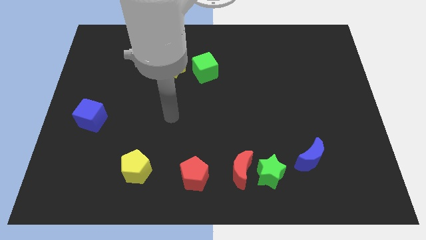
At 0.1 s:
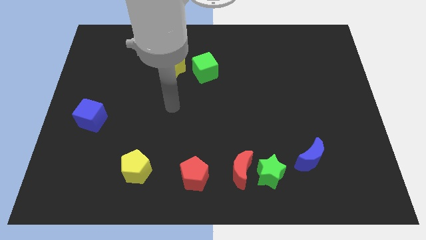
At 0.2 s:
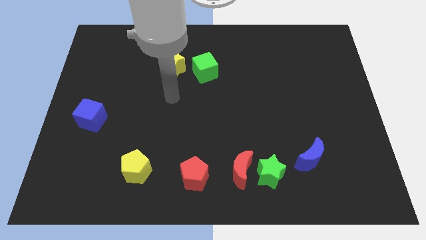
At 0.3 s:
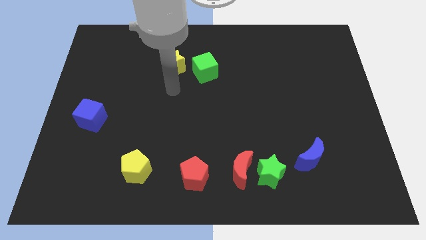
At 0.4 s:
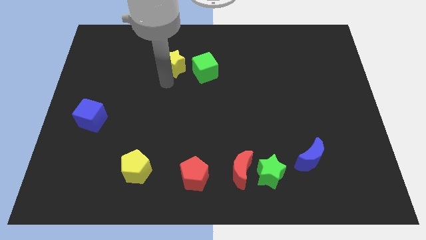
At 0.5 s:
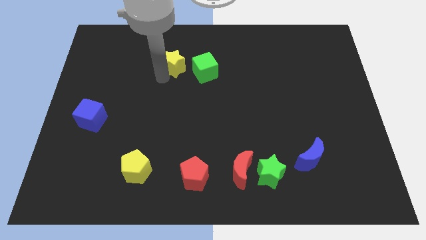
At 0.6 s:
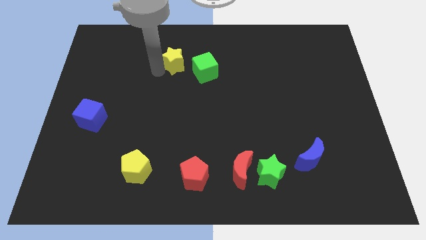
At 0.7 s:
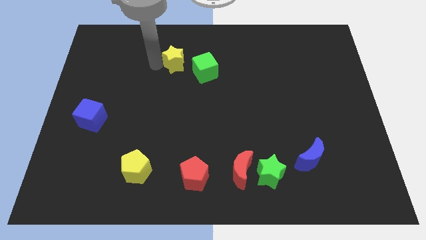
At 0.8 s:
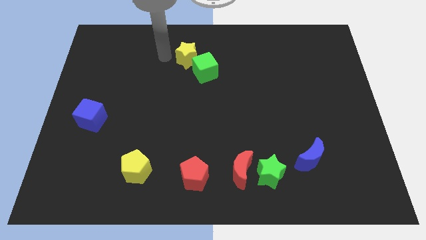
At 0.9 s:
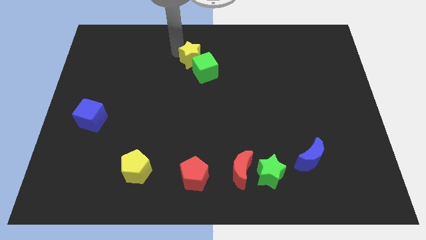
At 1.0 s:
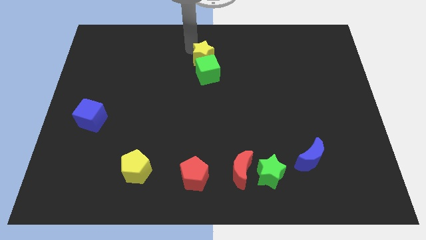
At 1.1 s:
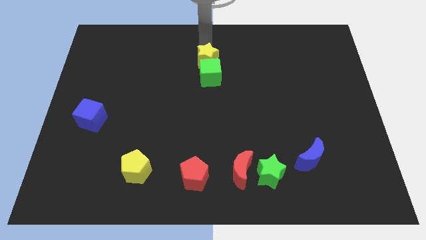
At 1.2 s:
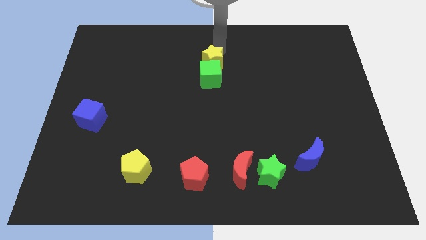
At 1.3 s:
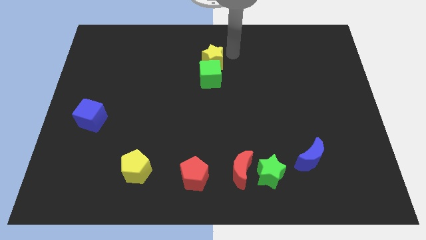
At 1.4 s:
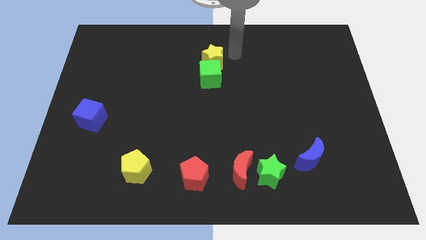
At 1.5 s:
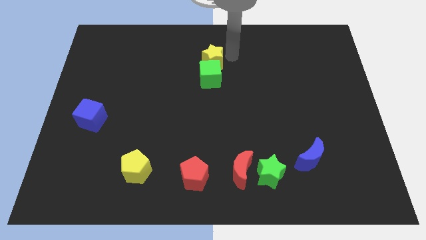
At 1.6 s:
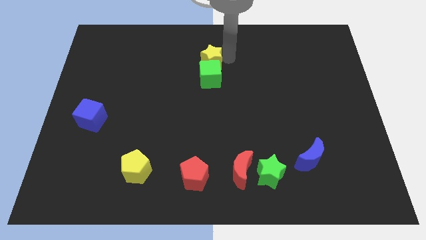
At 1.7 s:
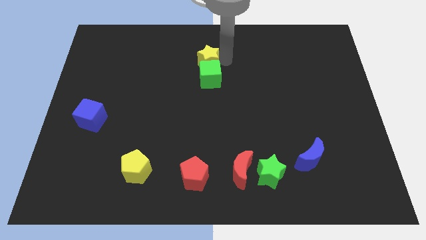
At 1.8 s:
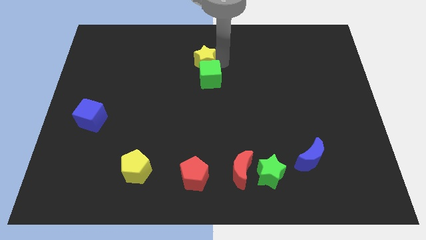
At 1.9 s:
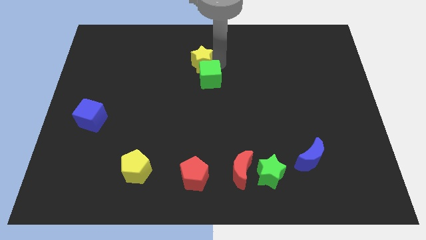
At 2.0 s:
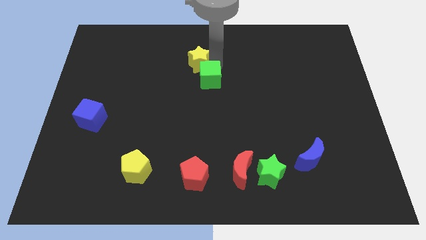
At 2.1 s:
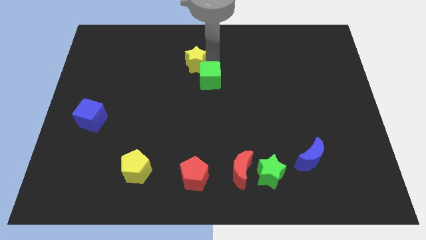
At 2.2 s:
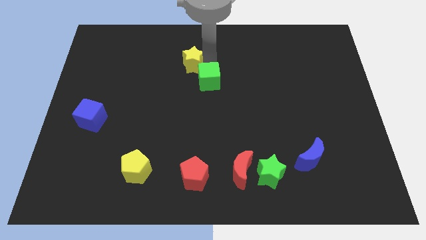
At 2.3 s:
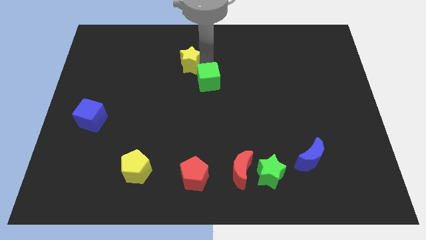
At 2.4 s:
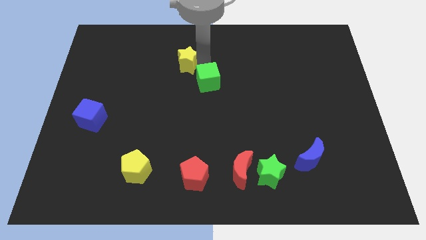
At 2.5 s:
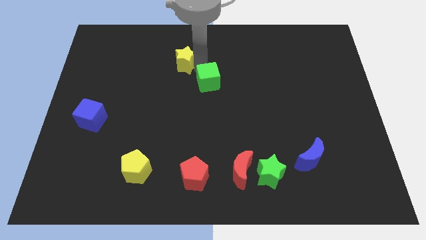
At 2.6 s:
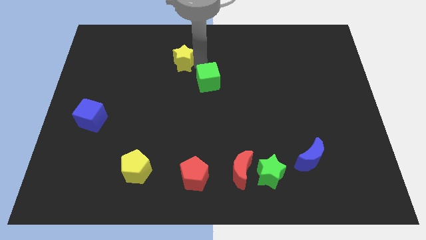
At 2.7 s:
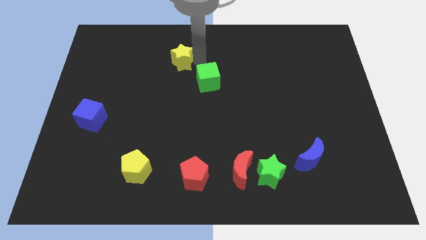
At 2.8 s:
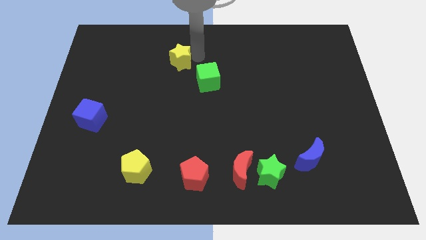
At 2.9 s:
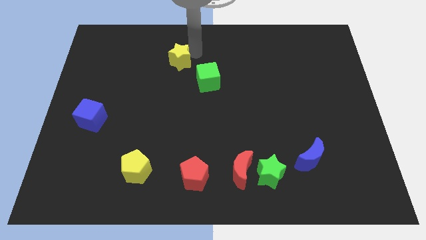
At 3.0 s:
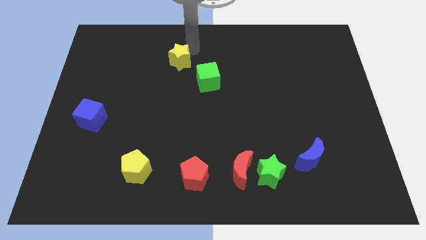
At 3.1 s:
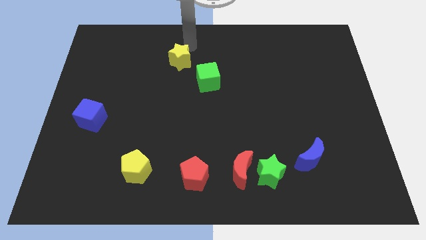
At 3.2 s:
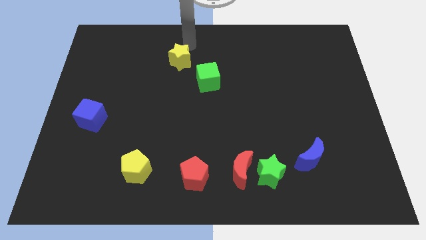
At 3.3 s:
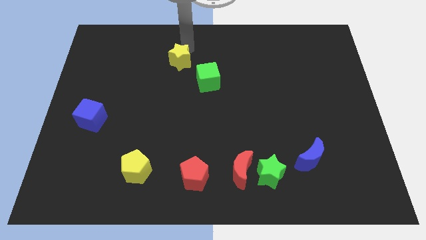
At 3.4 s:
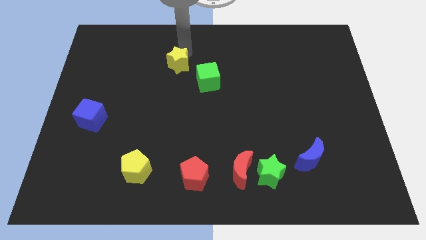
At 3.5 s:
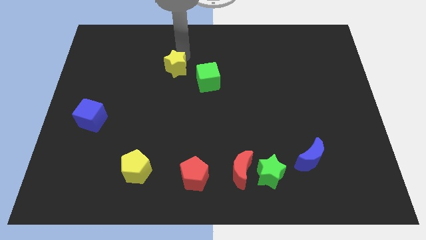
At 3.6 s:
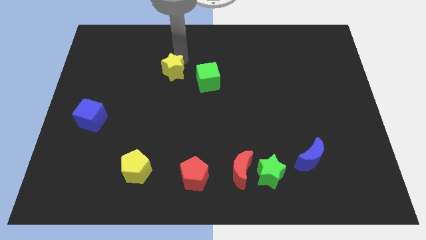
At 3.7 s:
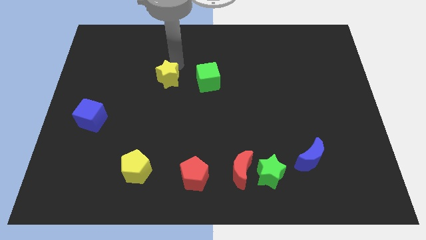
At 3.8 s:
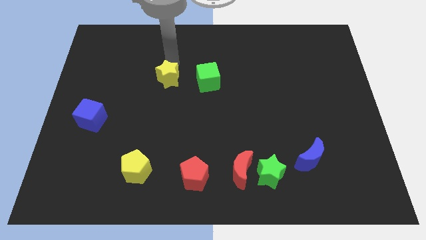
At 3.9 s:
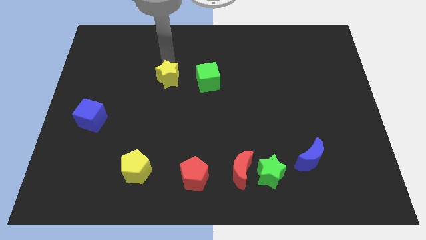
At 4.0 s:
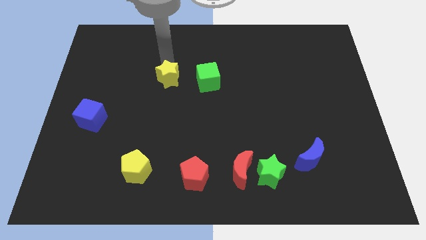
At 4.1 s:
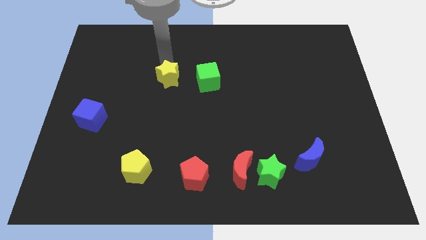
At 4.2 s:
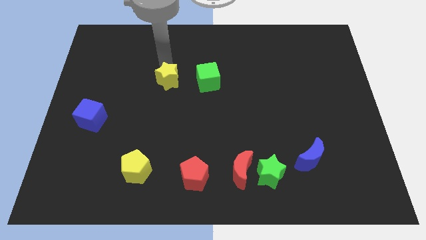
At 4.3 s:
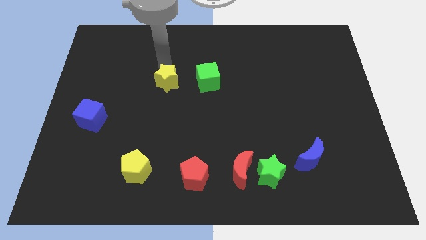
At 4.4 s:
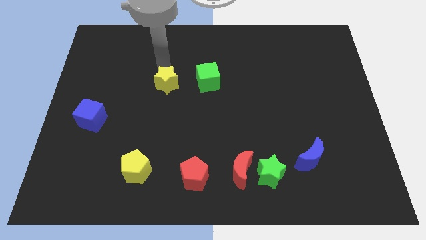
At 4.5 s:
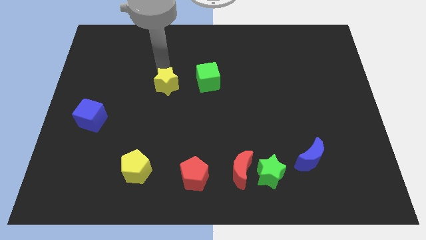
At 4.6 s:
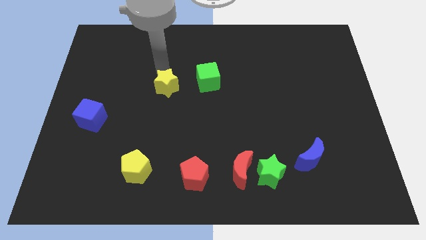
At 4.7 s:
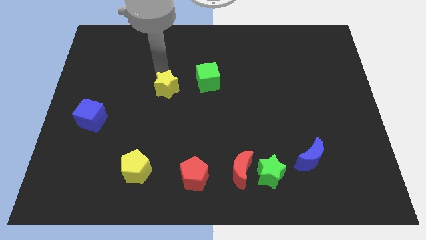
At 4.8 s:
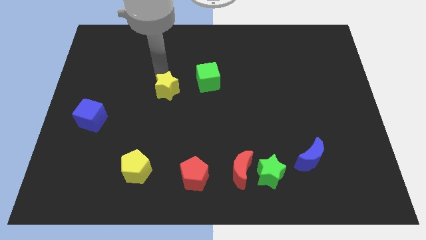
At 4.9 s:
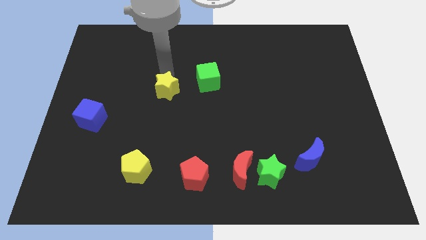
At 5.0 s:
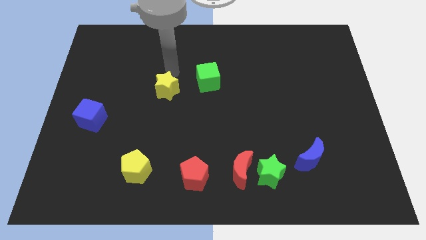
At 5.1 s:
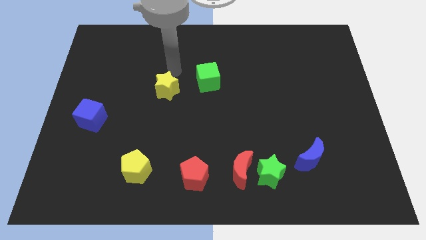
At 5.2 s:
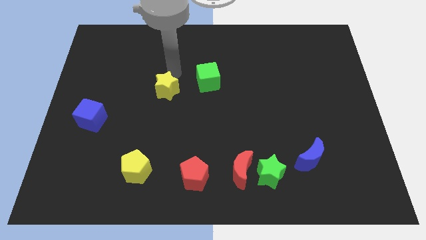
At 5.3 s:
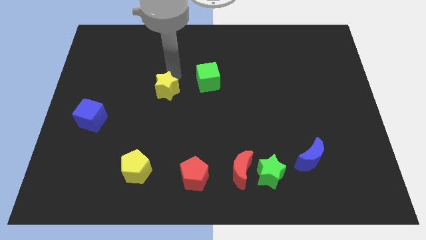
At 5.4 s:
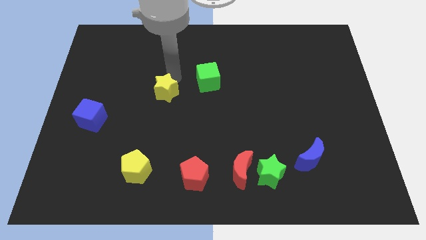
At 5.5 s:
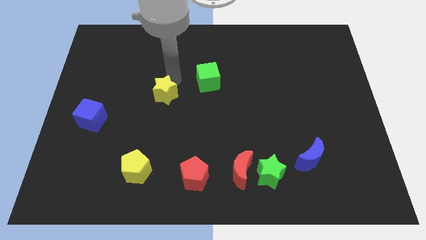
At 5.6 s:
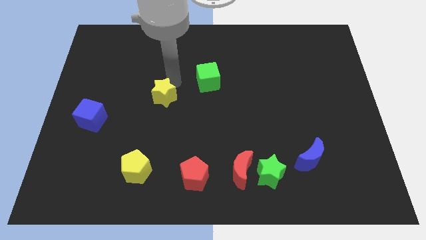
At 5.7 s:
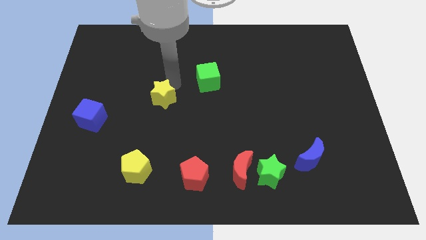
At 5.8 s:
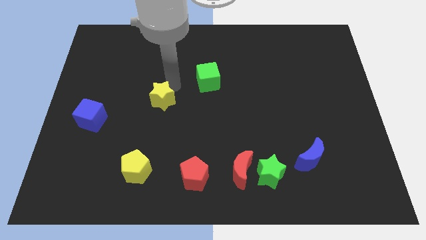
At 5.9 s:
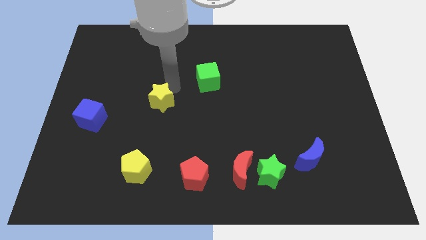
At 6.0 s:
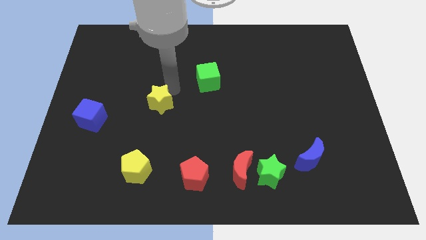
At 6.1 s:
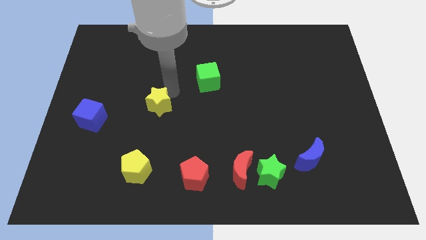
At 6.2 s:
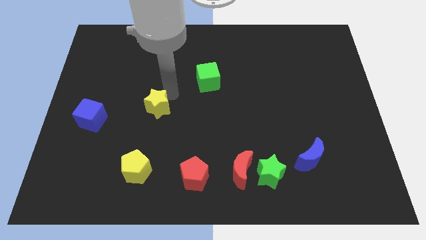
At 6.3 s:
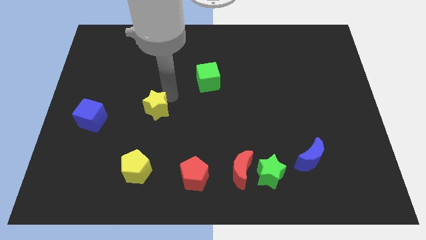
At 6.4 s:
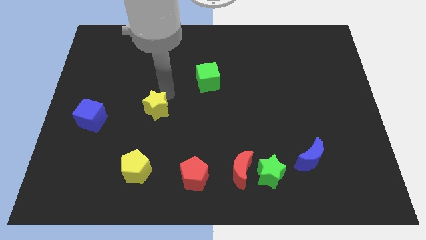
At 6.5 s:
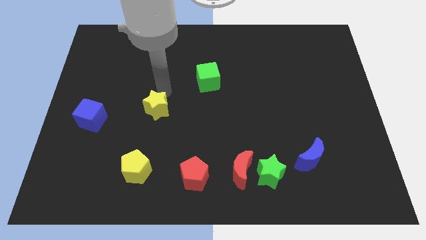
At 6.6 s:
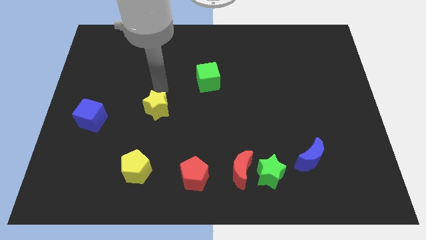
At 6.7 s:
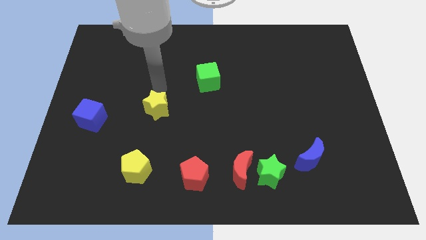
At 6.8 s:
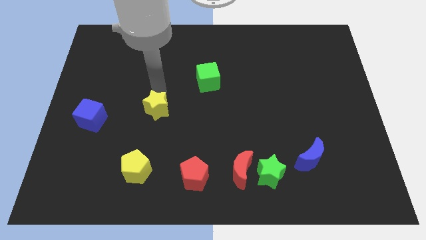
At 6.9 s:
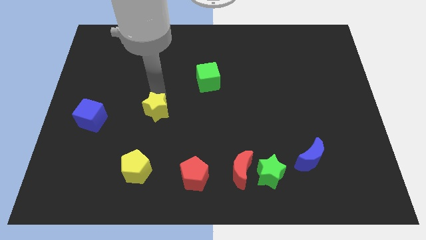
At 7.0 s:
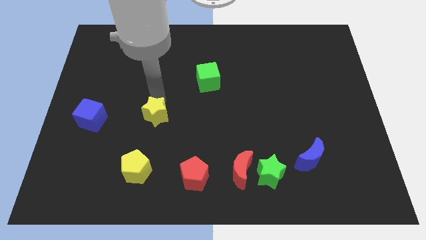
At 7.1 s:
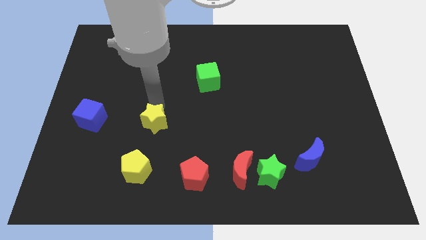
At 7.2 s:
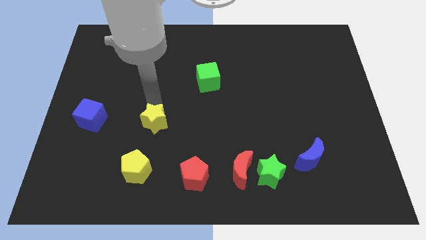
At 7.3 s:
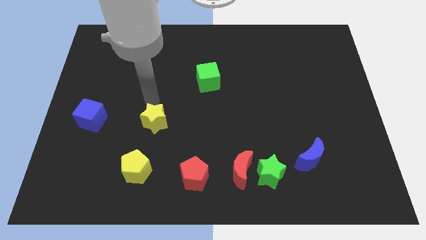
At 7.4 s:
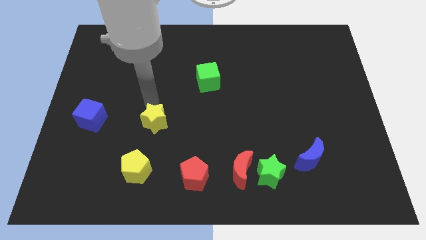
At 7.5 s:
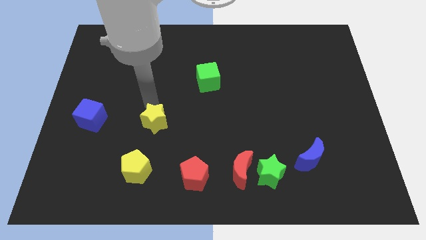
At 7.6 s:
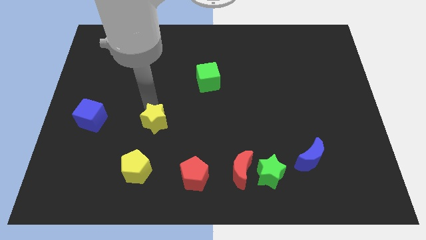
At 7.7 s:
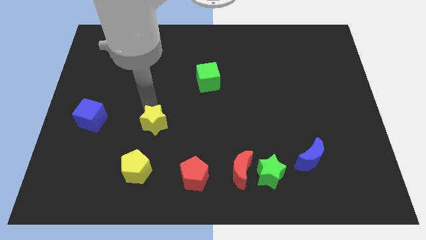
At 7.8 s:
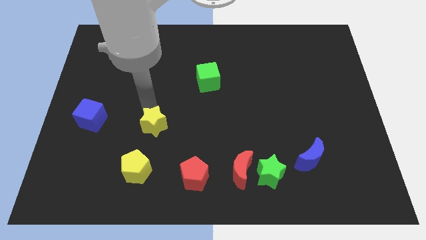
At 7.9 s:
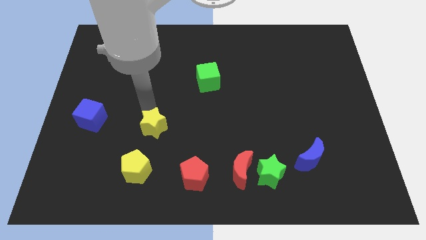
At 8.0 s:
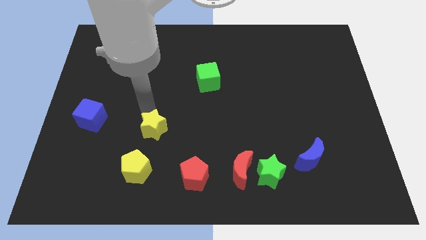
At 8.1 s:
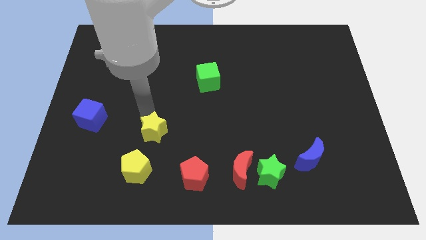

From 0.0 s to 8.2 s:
move the yellow star down

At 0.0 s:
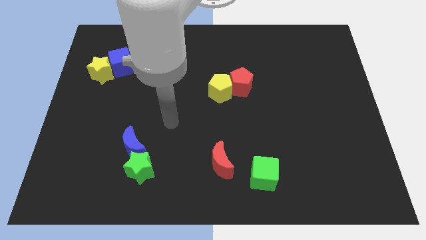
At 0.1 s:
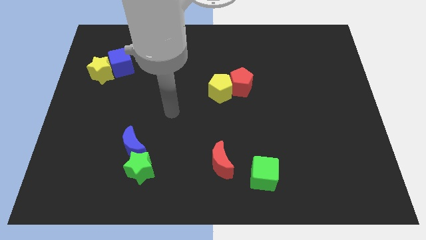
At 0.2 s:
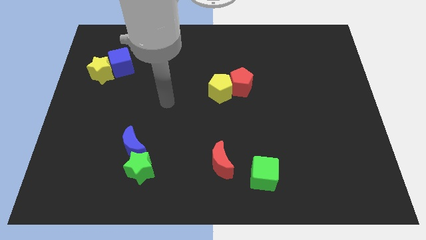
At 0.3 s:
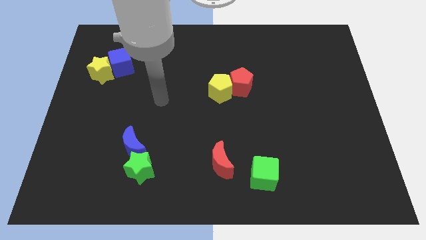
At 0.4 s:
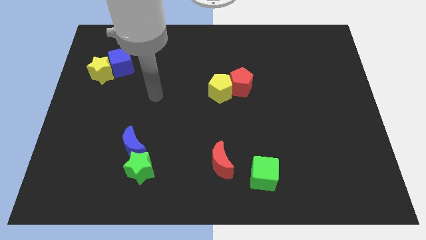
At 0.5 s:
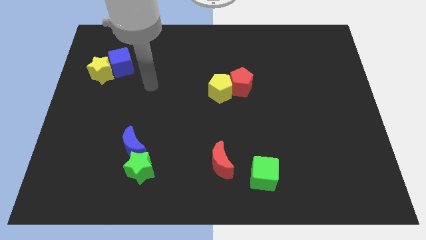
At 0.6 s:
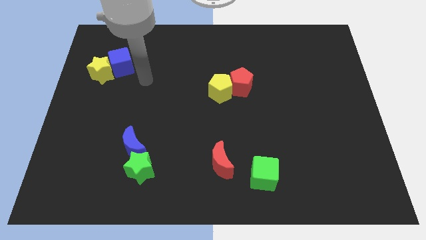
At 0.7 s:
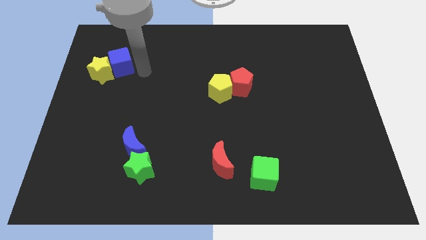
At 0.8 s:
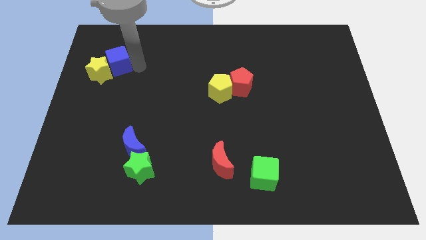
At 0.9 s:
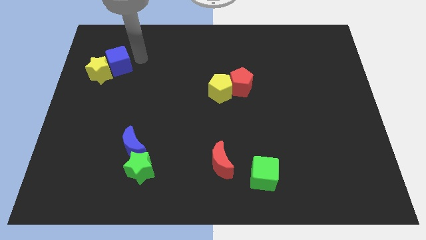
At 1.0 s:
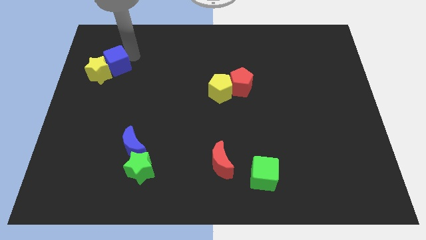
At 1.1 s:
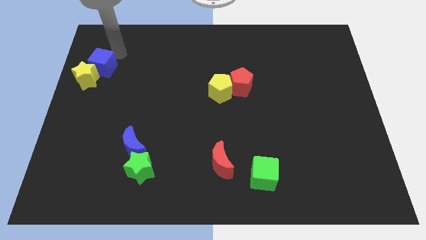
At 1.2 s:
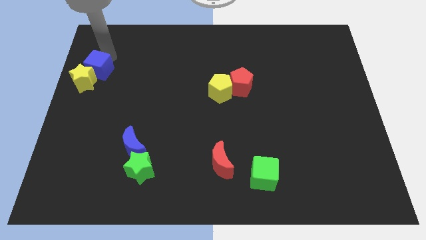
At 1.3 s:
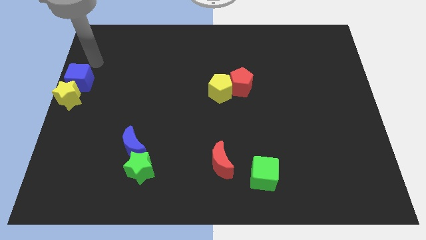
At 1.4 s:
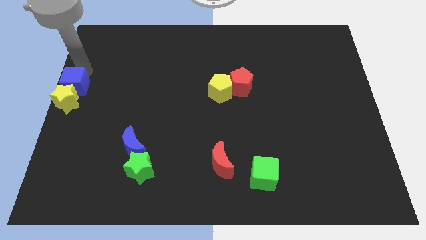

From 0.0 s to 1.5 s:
move the yellow star a bit downwards
